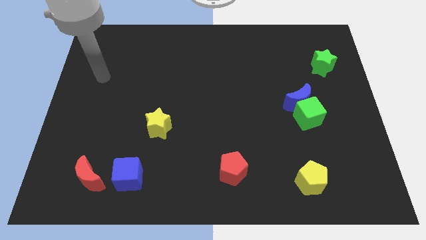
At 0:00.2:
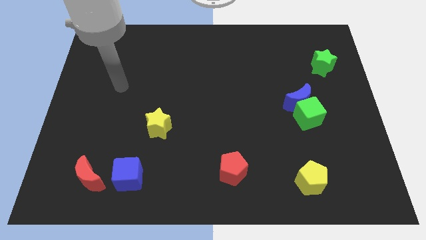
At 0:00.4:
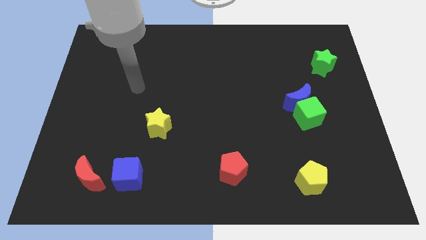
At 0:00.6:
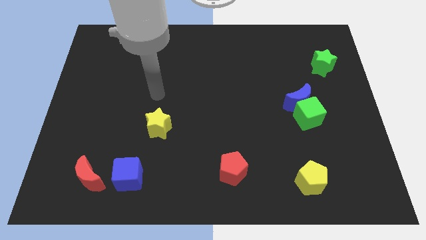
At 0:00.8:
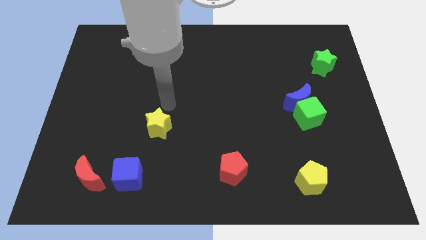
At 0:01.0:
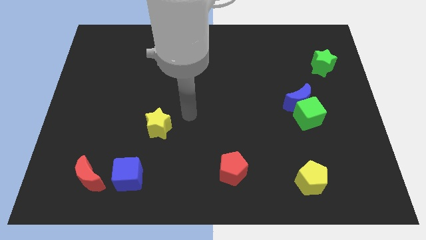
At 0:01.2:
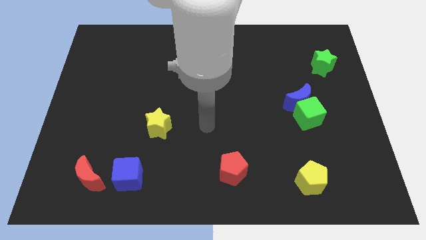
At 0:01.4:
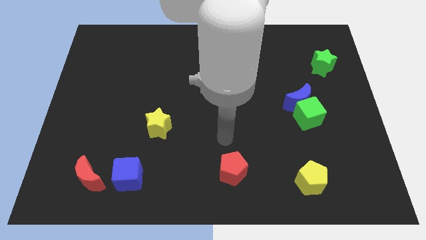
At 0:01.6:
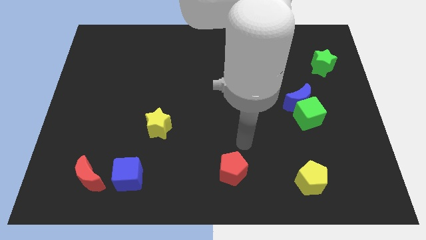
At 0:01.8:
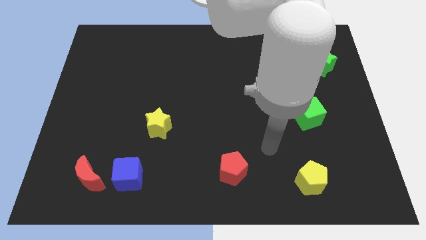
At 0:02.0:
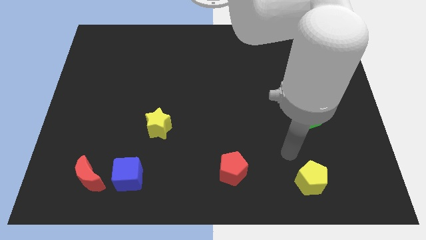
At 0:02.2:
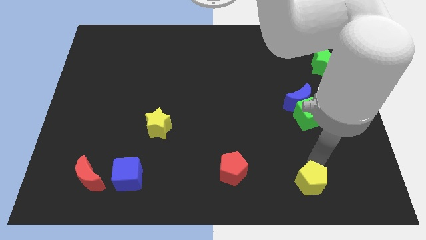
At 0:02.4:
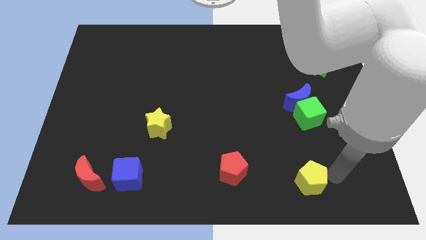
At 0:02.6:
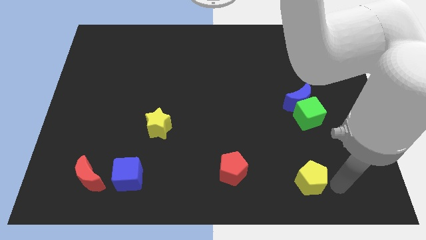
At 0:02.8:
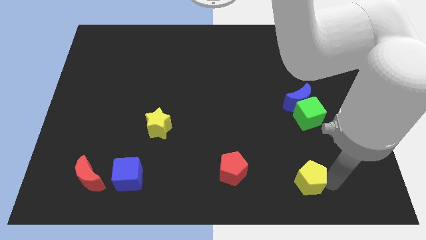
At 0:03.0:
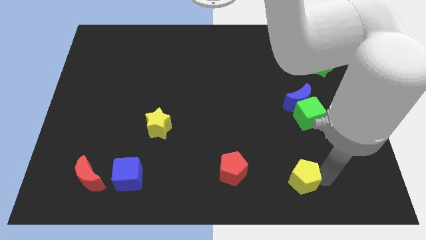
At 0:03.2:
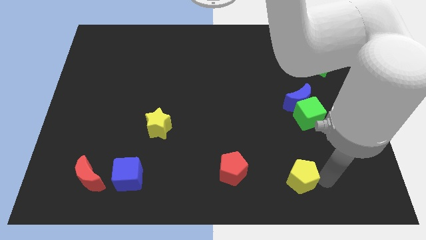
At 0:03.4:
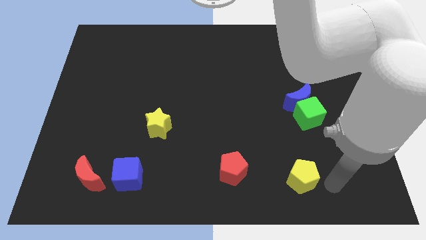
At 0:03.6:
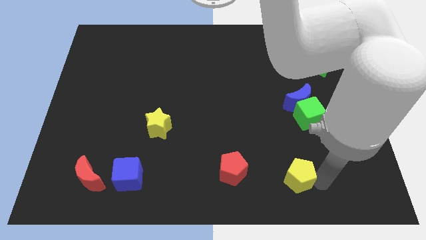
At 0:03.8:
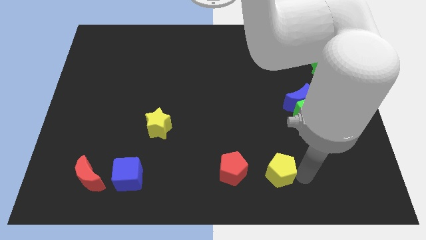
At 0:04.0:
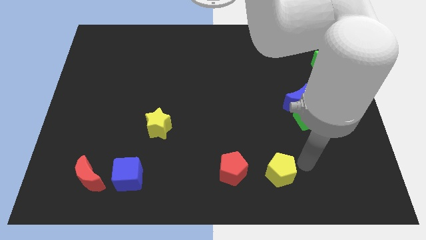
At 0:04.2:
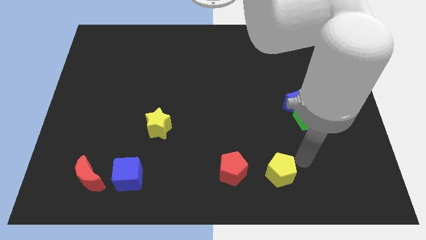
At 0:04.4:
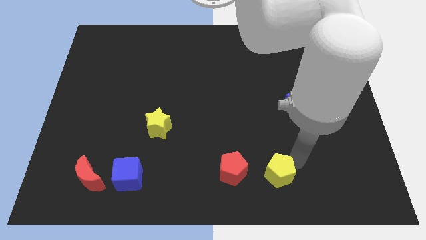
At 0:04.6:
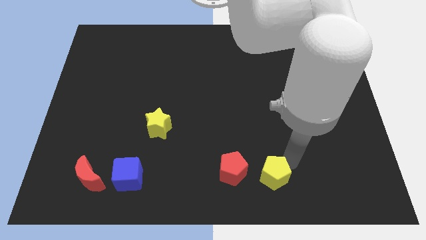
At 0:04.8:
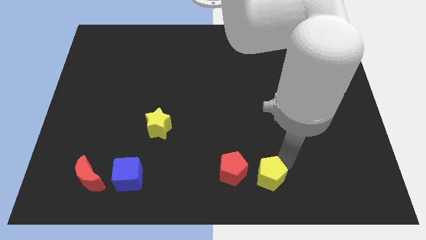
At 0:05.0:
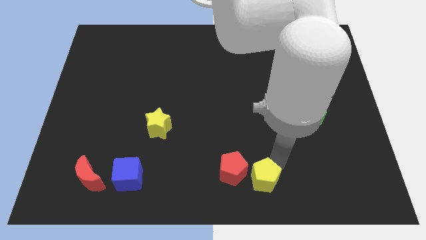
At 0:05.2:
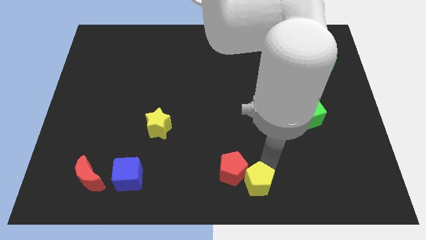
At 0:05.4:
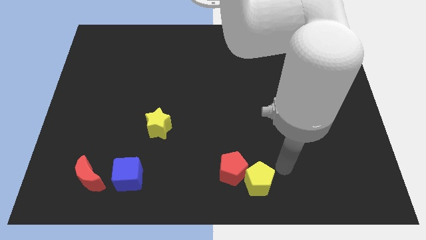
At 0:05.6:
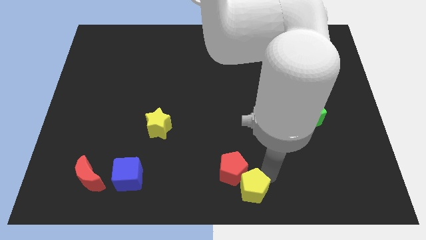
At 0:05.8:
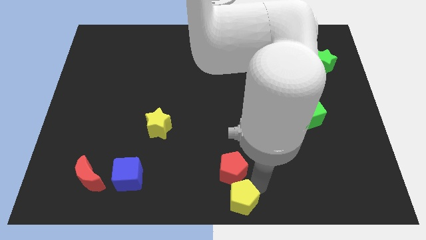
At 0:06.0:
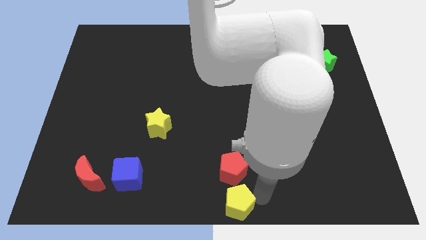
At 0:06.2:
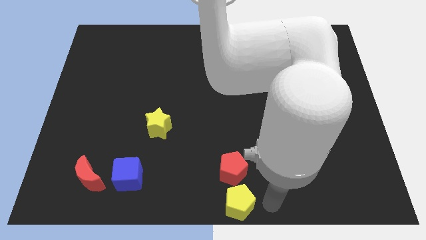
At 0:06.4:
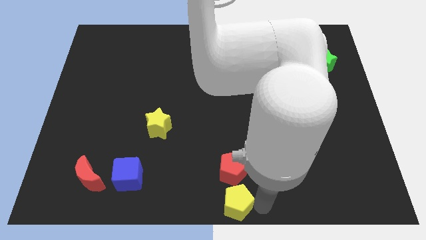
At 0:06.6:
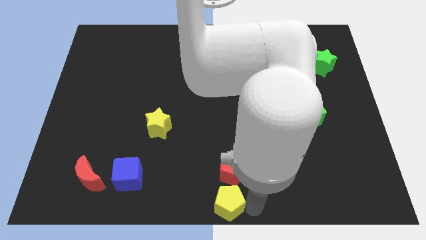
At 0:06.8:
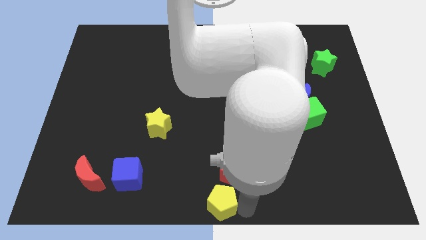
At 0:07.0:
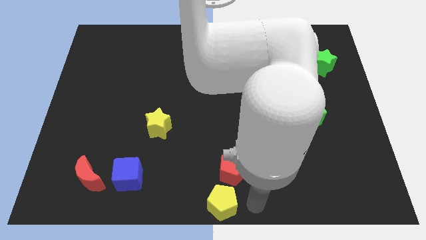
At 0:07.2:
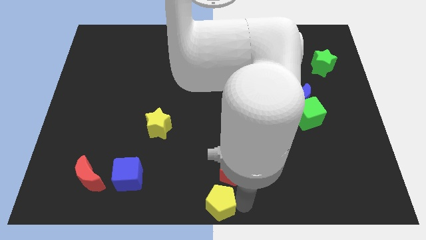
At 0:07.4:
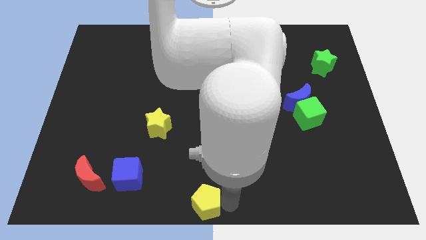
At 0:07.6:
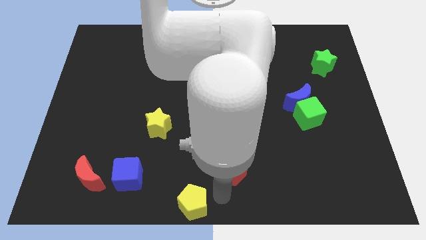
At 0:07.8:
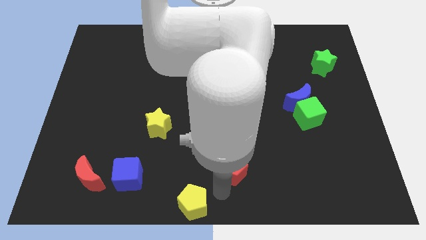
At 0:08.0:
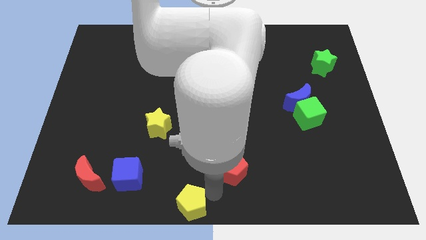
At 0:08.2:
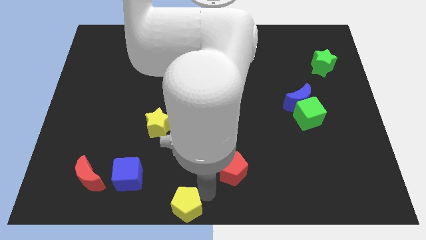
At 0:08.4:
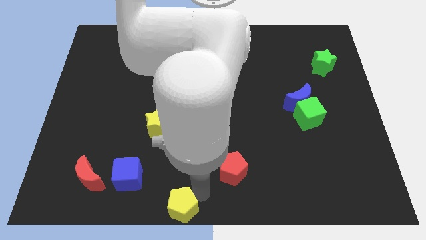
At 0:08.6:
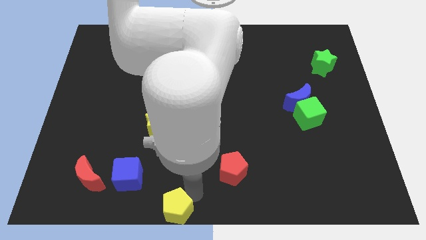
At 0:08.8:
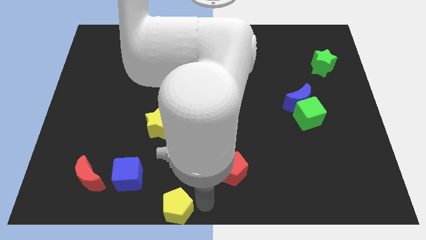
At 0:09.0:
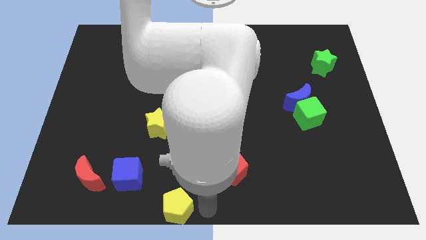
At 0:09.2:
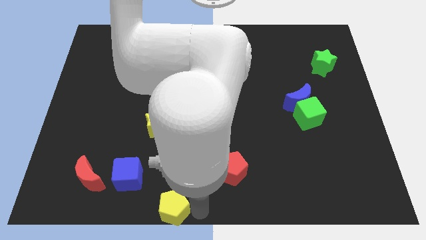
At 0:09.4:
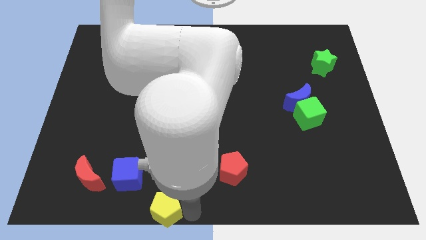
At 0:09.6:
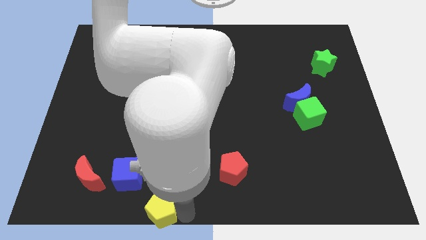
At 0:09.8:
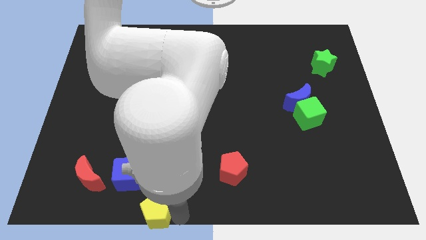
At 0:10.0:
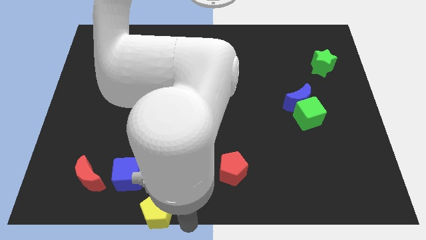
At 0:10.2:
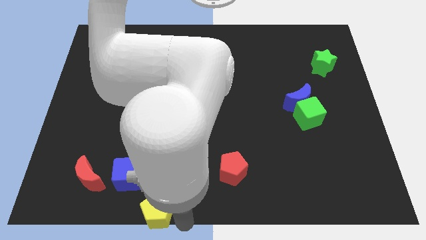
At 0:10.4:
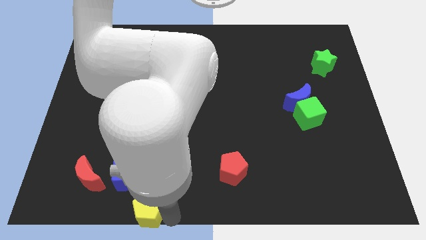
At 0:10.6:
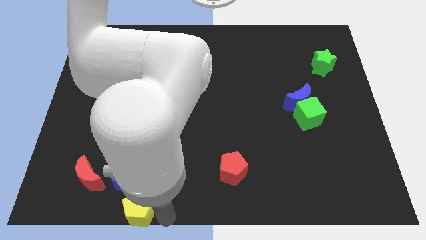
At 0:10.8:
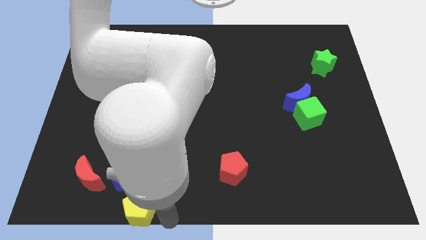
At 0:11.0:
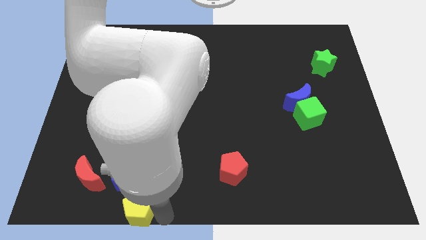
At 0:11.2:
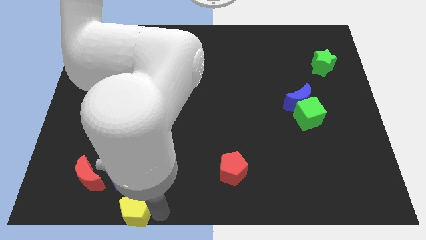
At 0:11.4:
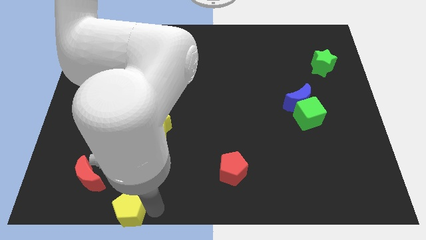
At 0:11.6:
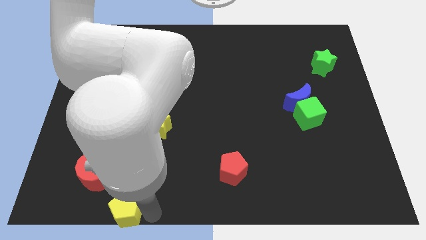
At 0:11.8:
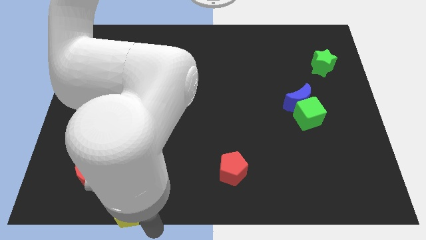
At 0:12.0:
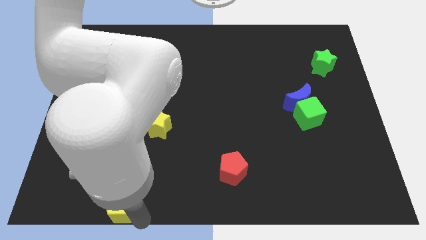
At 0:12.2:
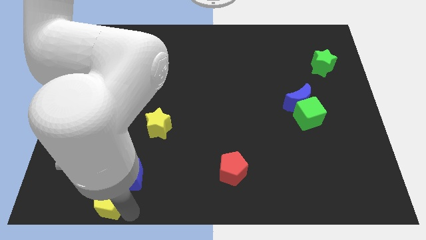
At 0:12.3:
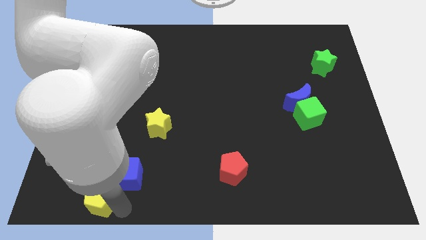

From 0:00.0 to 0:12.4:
slide the yellow pentagon close to the red moon

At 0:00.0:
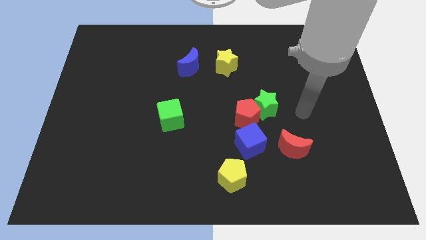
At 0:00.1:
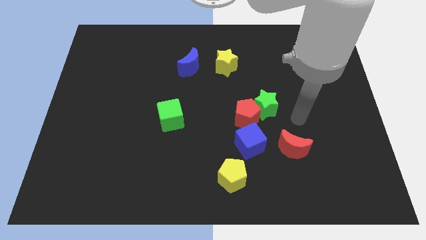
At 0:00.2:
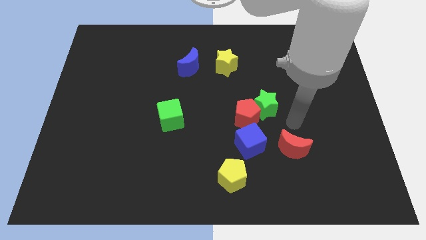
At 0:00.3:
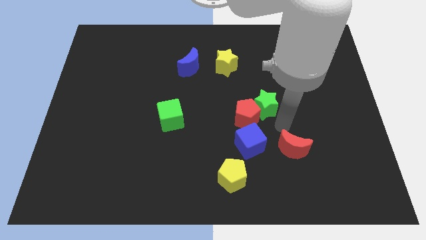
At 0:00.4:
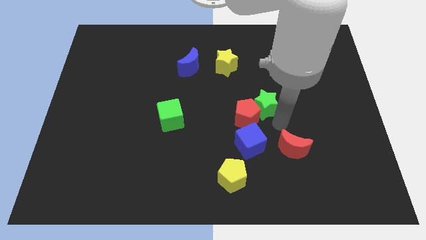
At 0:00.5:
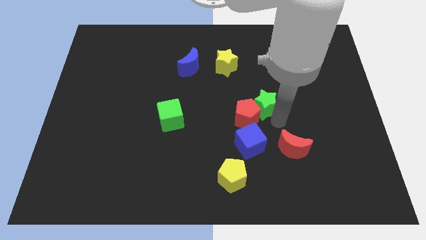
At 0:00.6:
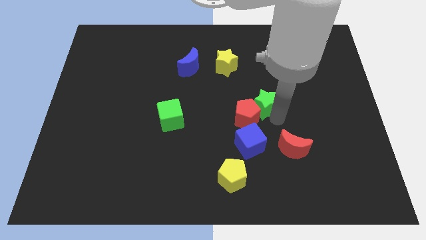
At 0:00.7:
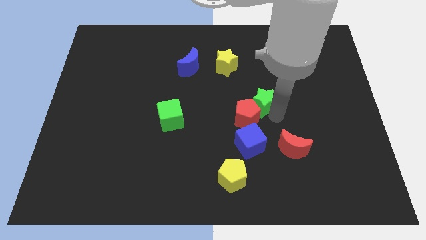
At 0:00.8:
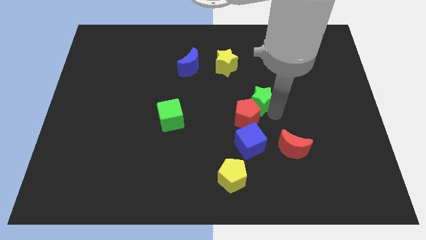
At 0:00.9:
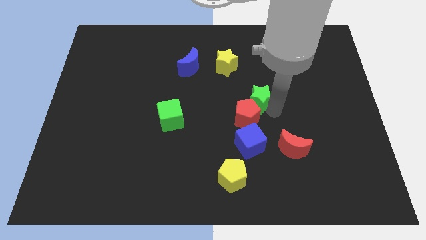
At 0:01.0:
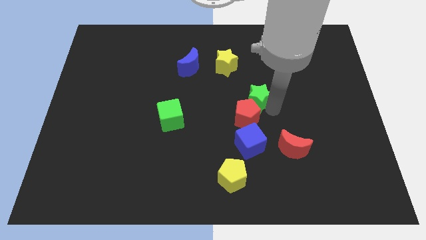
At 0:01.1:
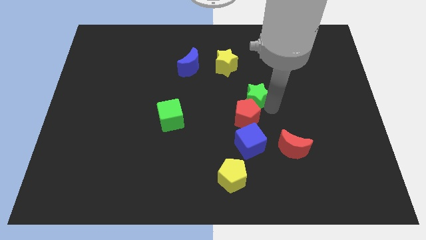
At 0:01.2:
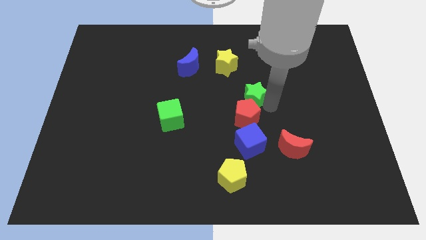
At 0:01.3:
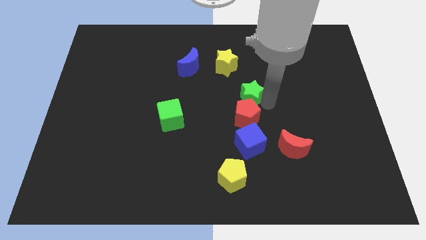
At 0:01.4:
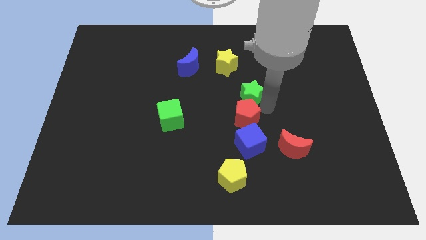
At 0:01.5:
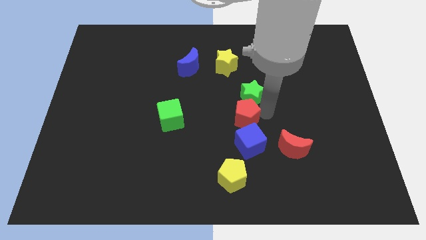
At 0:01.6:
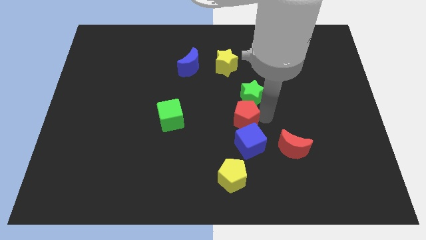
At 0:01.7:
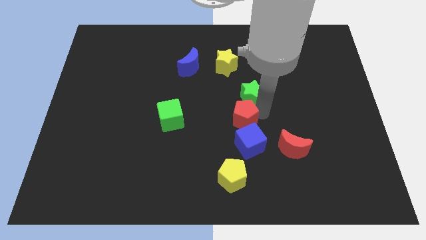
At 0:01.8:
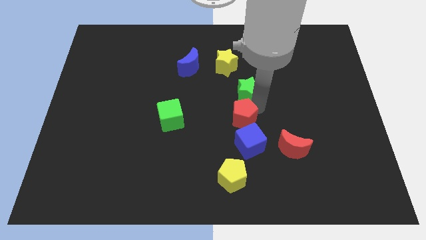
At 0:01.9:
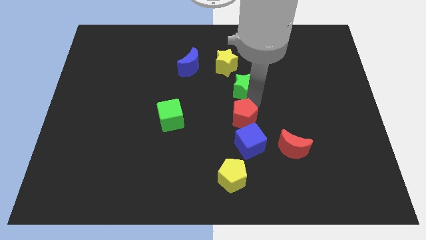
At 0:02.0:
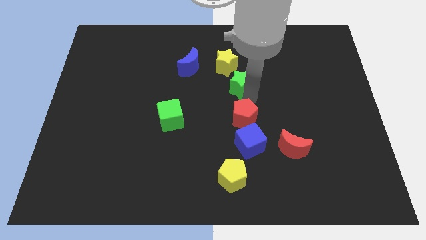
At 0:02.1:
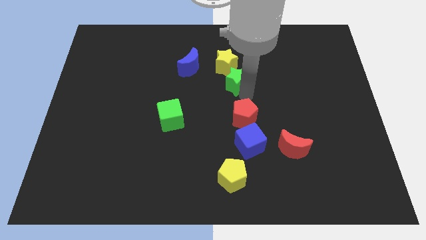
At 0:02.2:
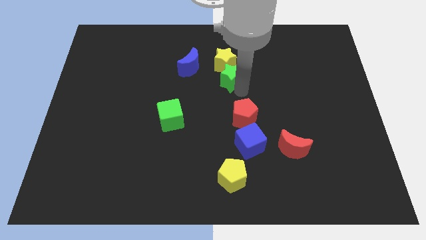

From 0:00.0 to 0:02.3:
put the green star to the yellow star
